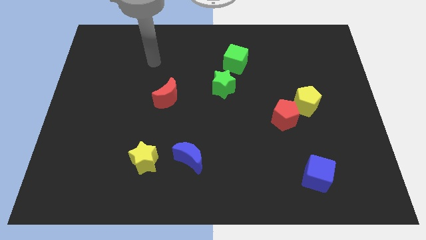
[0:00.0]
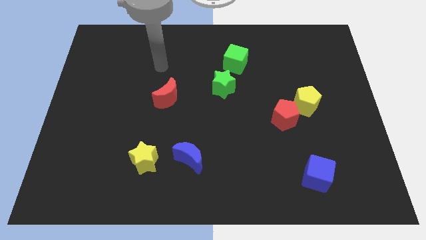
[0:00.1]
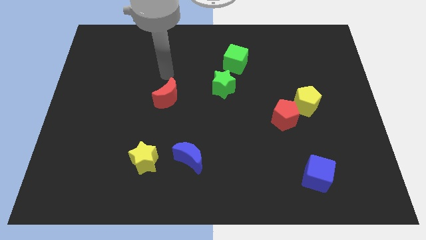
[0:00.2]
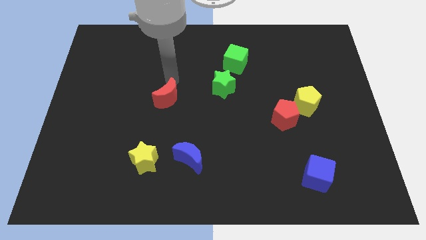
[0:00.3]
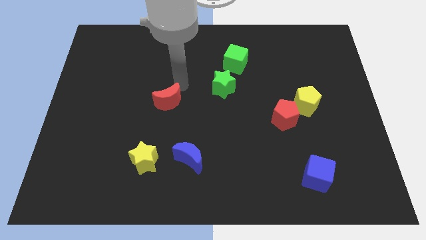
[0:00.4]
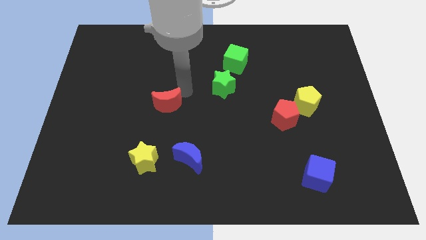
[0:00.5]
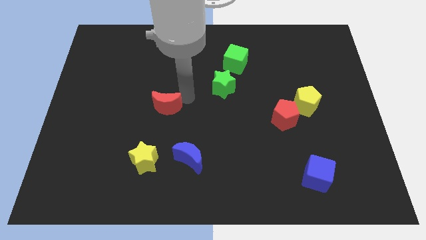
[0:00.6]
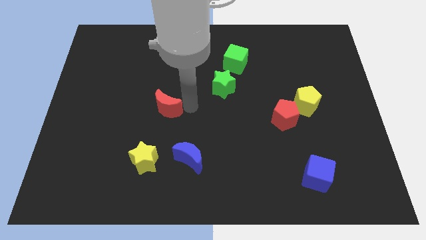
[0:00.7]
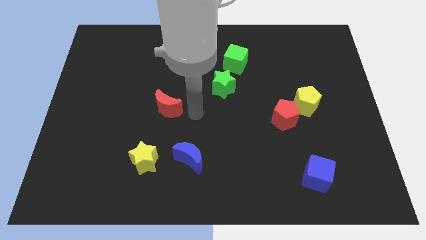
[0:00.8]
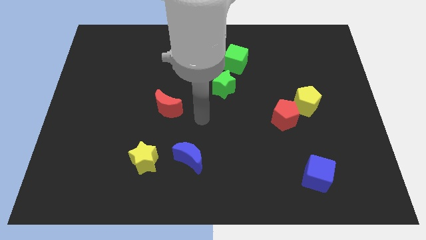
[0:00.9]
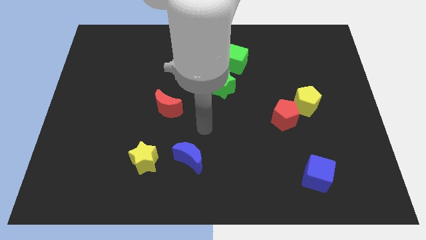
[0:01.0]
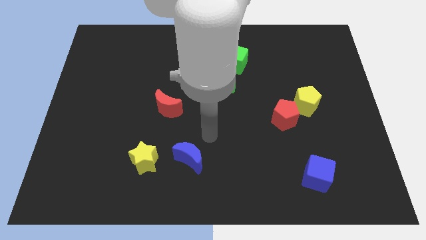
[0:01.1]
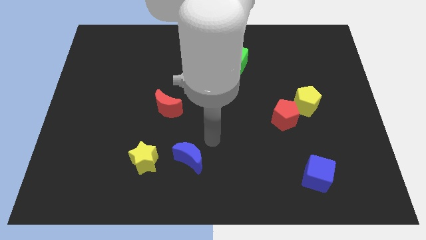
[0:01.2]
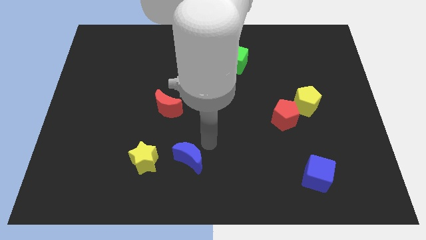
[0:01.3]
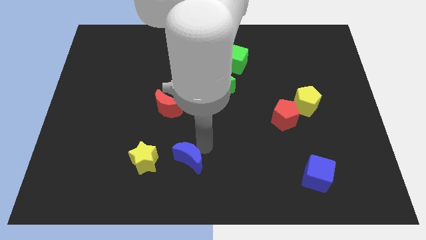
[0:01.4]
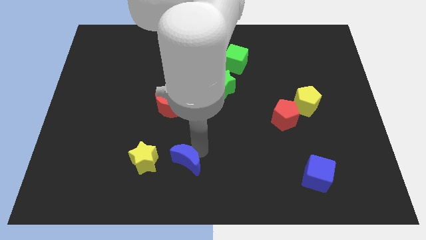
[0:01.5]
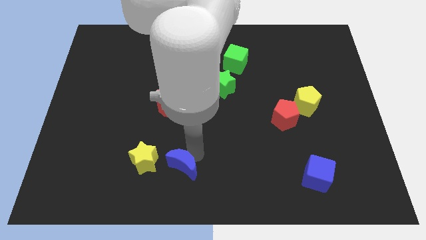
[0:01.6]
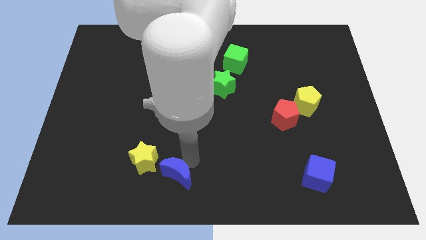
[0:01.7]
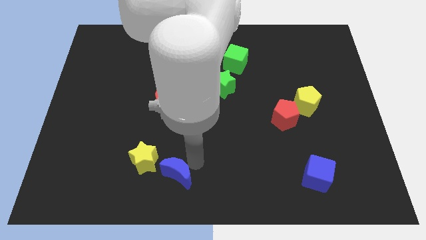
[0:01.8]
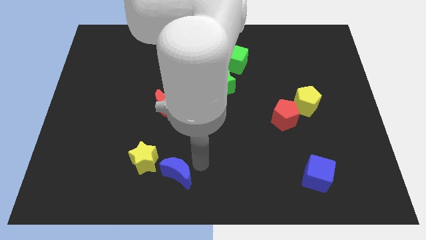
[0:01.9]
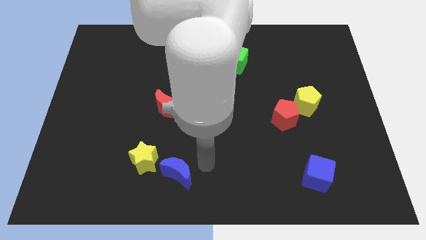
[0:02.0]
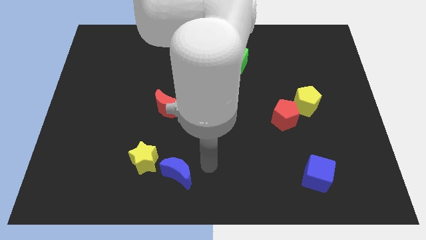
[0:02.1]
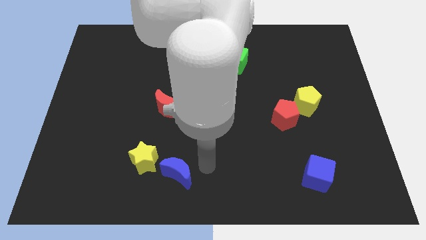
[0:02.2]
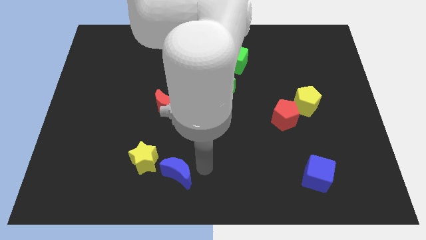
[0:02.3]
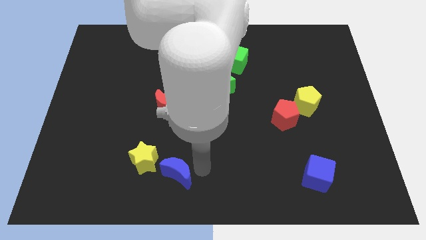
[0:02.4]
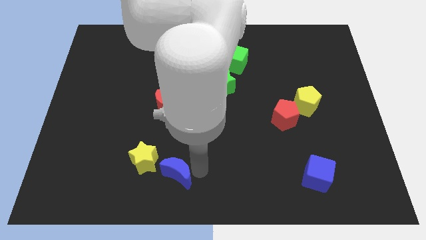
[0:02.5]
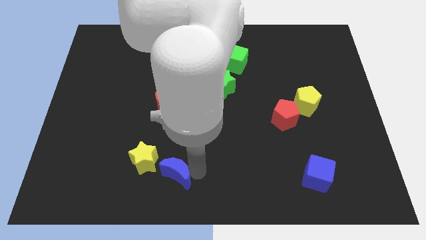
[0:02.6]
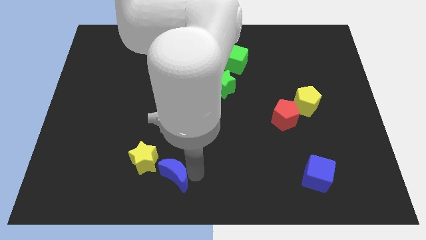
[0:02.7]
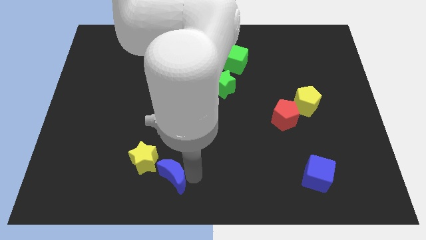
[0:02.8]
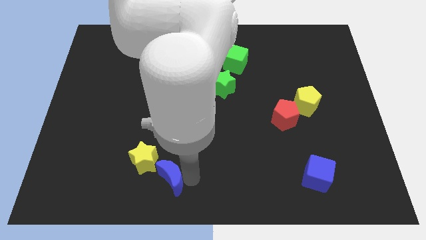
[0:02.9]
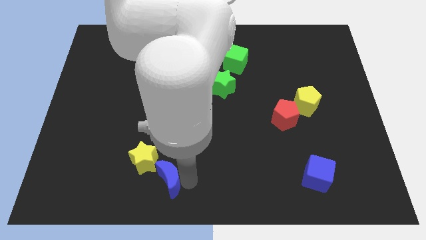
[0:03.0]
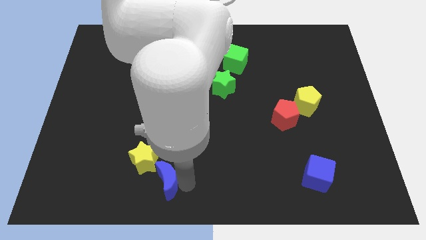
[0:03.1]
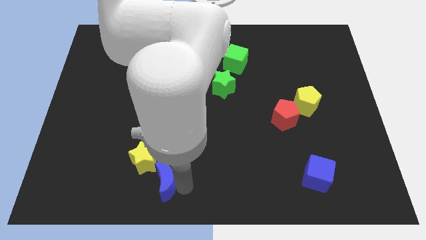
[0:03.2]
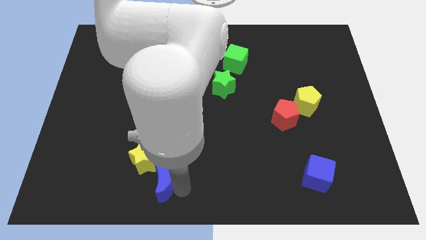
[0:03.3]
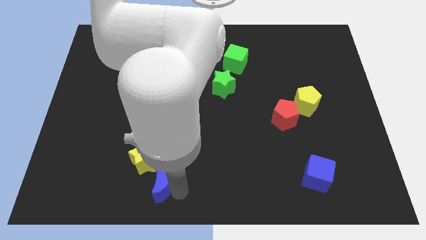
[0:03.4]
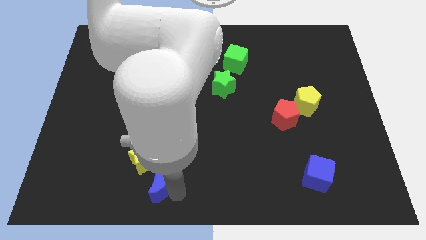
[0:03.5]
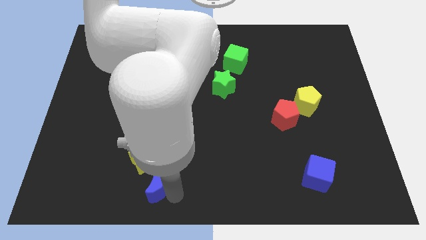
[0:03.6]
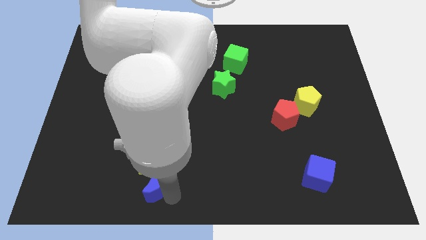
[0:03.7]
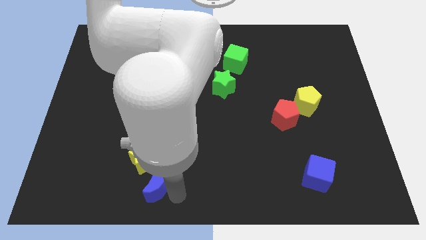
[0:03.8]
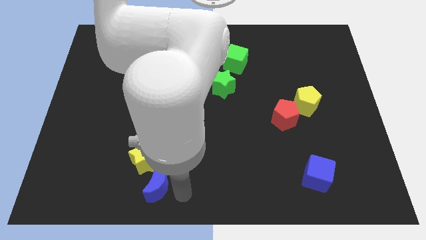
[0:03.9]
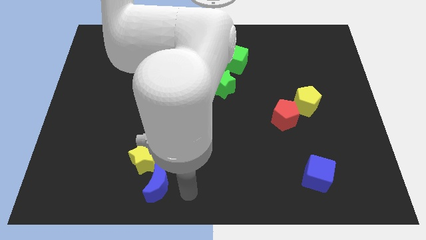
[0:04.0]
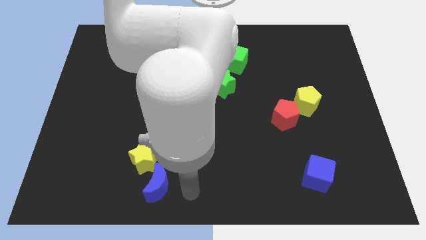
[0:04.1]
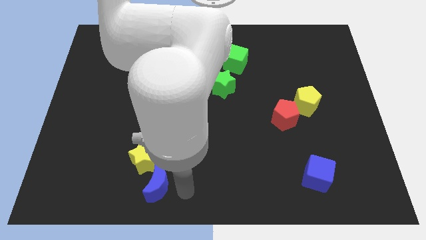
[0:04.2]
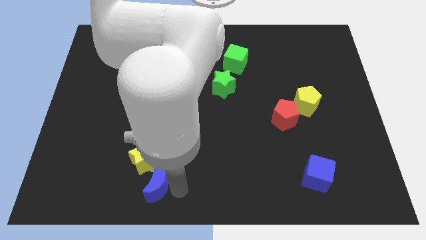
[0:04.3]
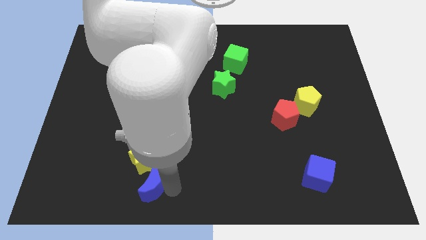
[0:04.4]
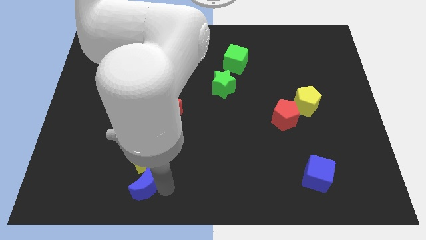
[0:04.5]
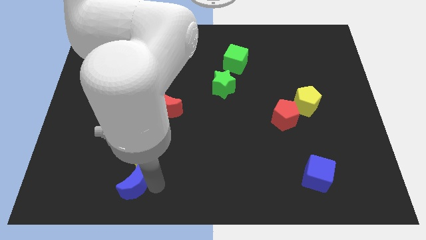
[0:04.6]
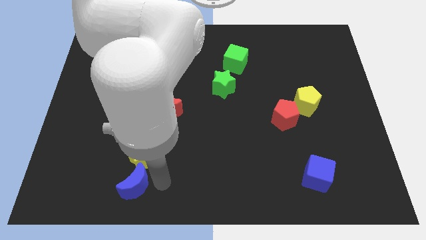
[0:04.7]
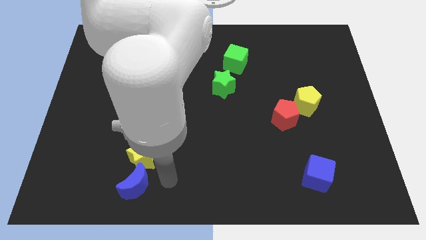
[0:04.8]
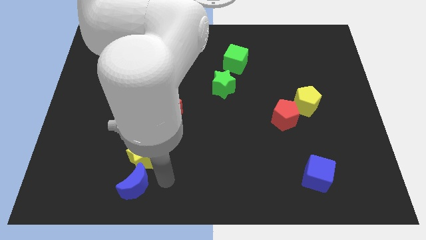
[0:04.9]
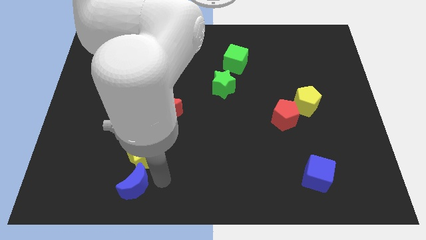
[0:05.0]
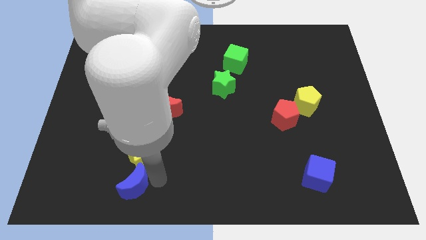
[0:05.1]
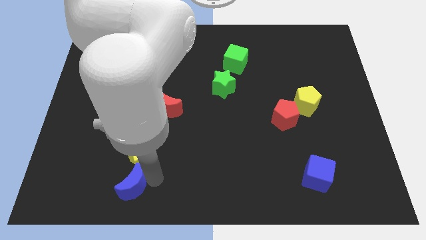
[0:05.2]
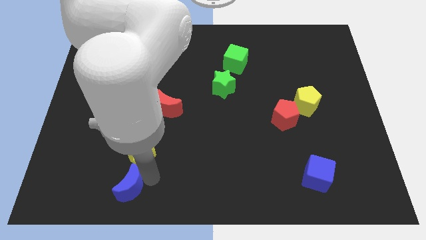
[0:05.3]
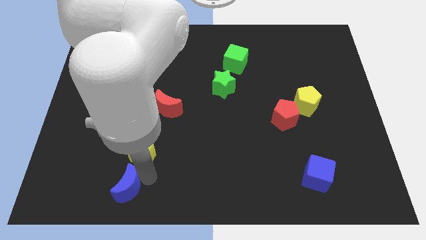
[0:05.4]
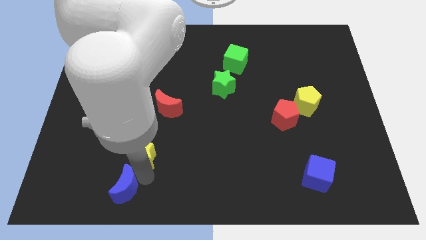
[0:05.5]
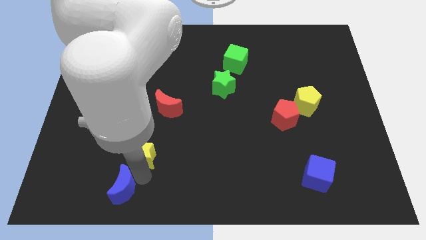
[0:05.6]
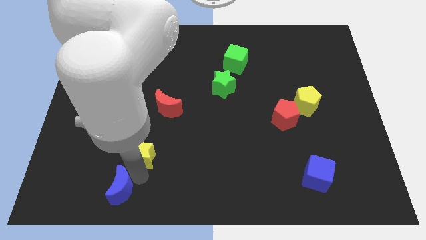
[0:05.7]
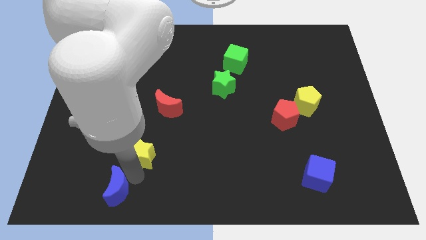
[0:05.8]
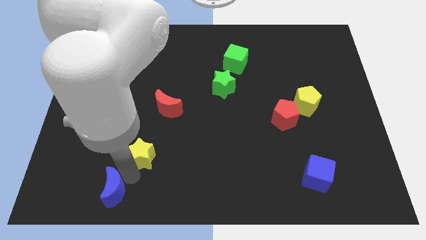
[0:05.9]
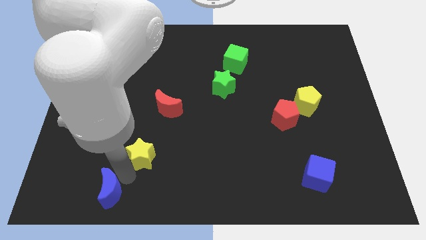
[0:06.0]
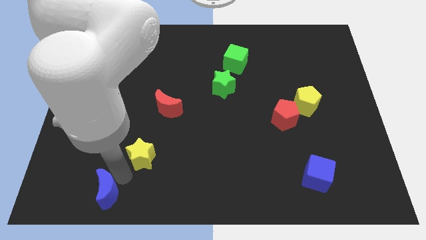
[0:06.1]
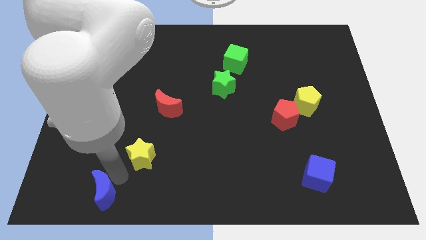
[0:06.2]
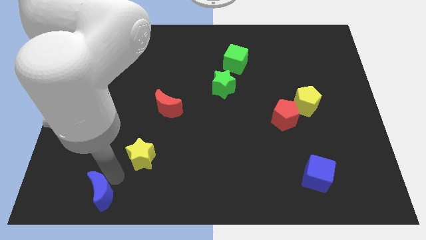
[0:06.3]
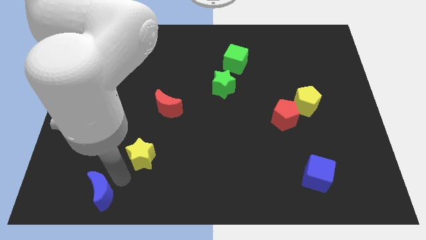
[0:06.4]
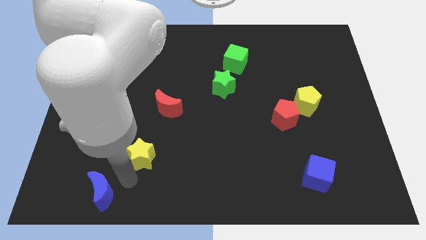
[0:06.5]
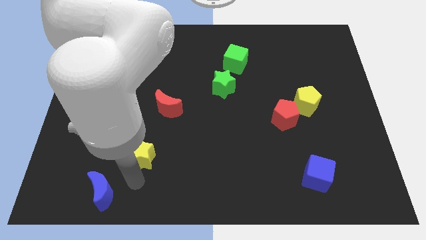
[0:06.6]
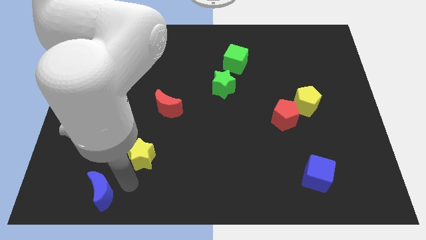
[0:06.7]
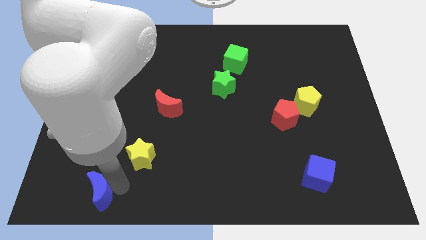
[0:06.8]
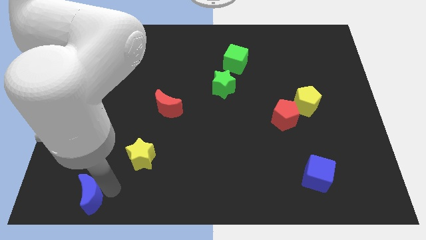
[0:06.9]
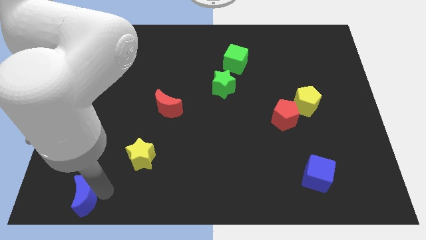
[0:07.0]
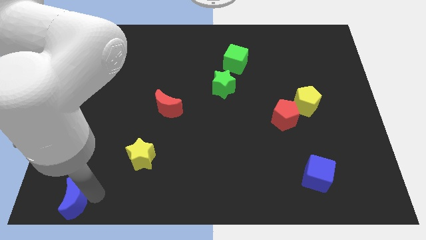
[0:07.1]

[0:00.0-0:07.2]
push the blue moon to the bottom left
